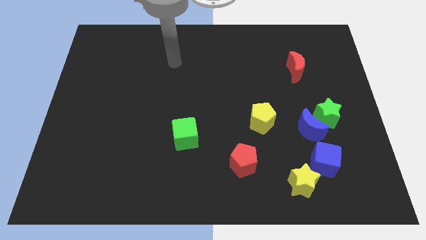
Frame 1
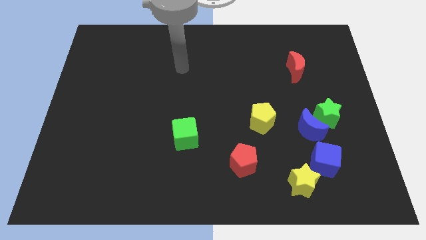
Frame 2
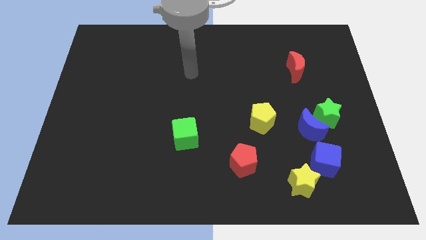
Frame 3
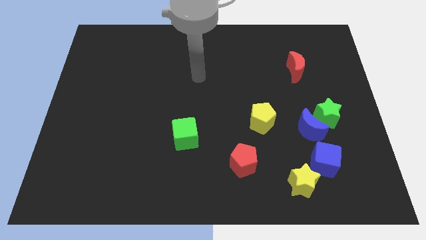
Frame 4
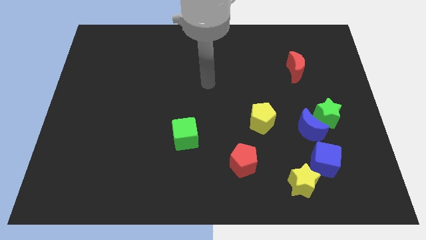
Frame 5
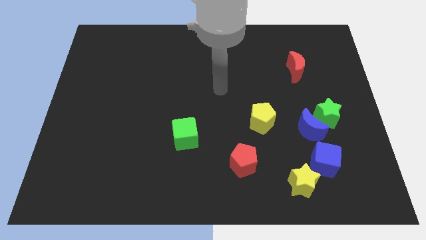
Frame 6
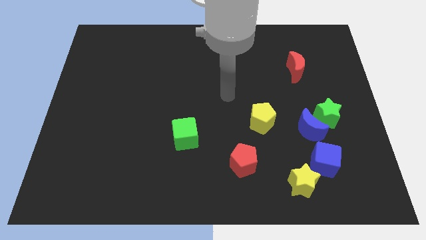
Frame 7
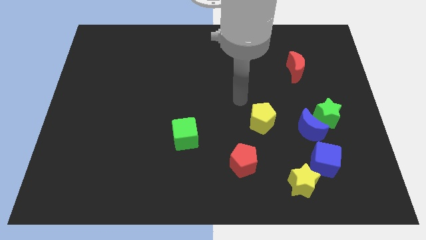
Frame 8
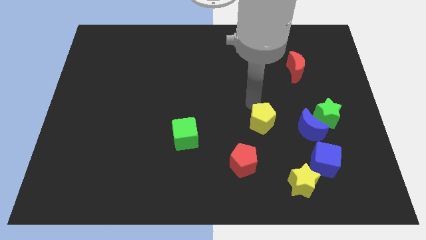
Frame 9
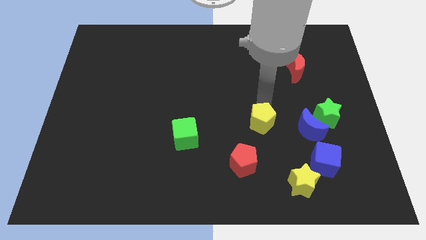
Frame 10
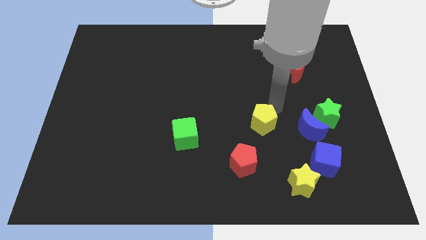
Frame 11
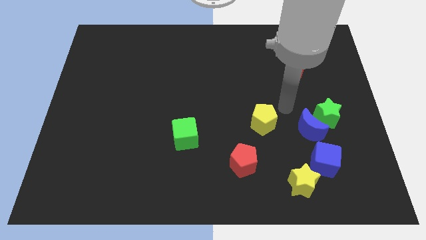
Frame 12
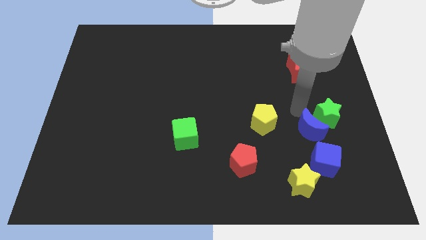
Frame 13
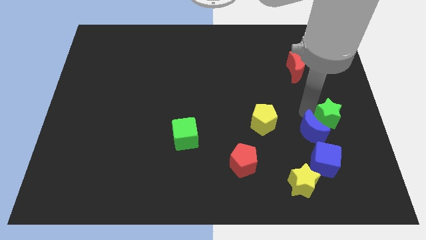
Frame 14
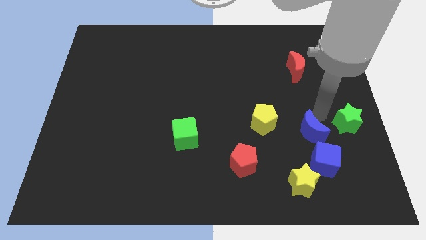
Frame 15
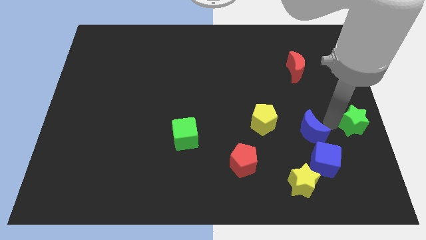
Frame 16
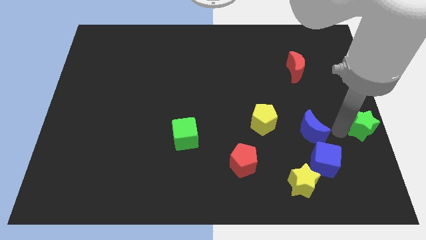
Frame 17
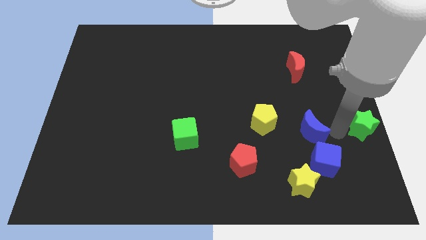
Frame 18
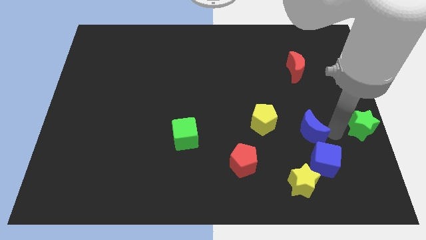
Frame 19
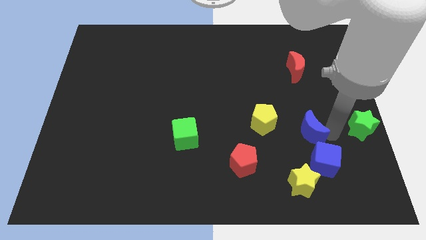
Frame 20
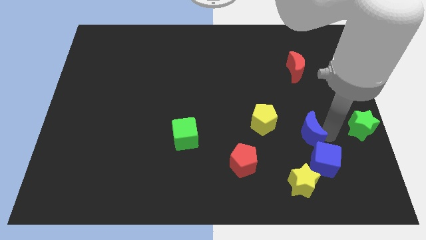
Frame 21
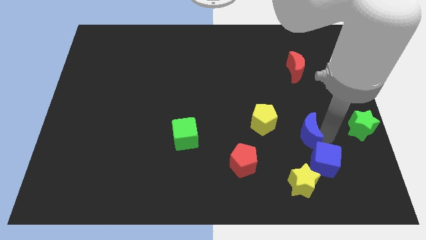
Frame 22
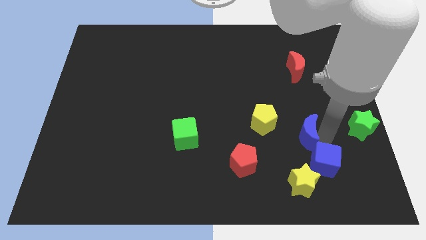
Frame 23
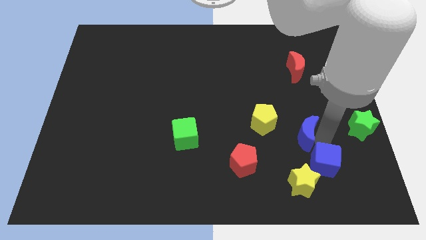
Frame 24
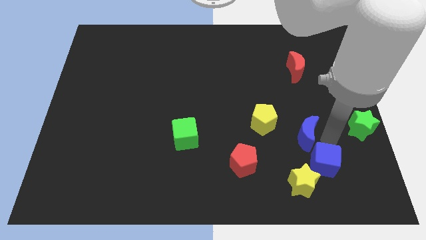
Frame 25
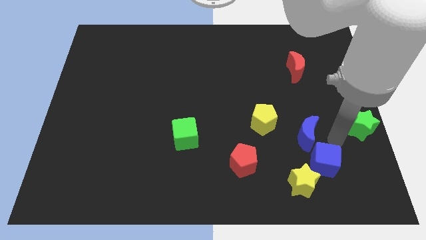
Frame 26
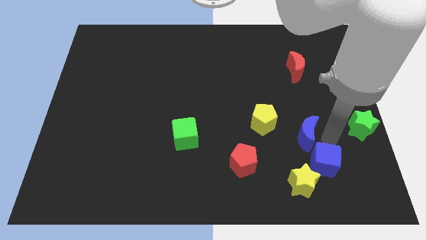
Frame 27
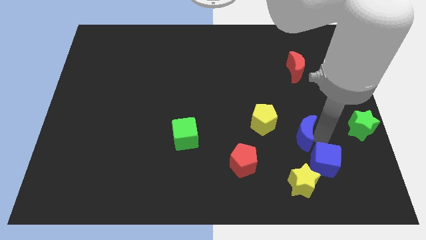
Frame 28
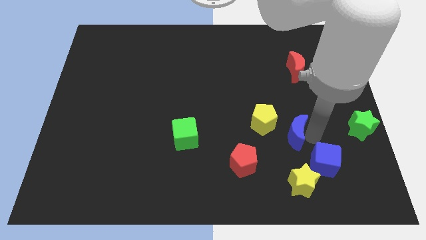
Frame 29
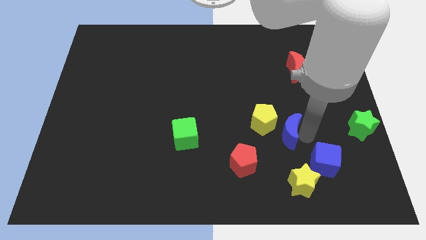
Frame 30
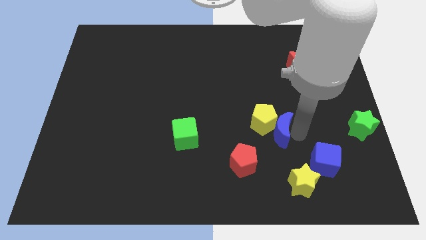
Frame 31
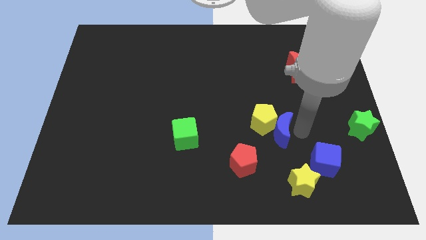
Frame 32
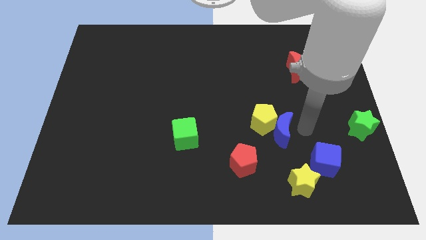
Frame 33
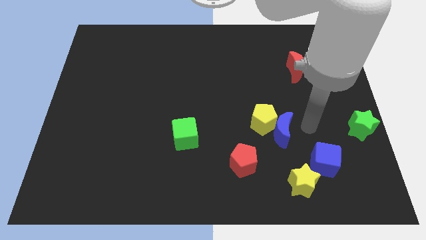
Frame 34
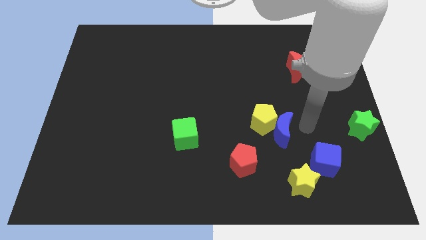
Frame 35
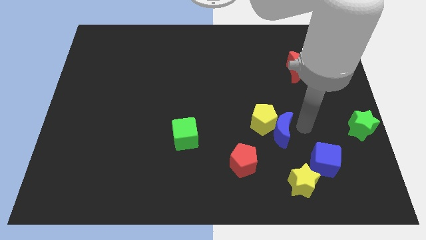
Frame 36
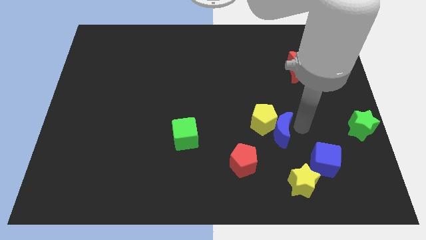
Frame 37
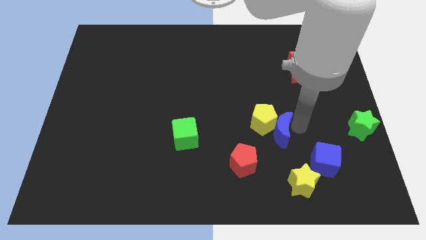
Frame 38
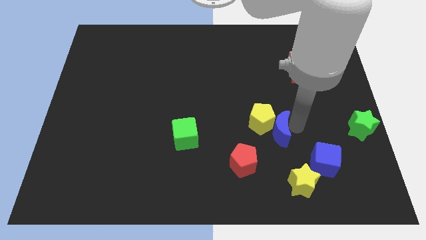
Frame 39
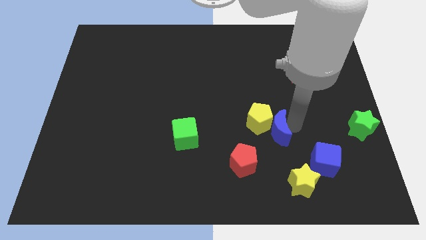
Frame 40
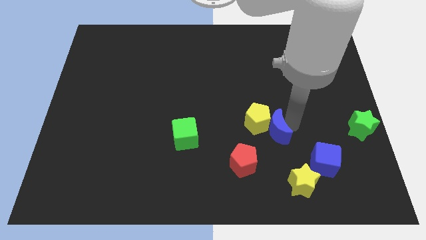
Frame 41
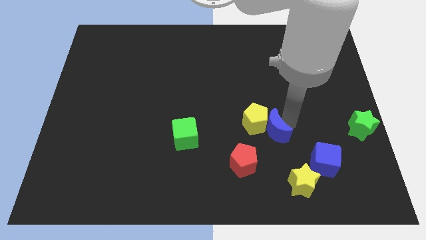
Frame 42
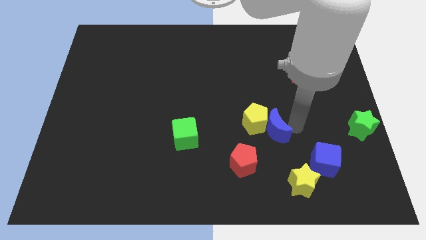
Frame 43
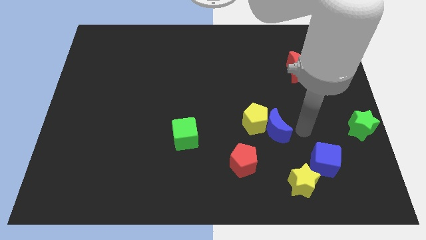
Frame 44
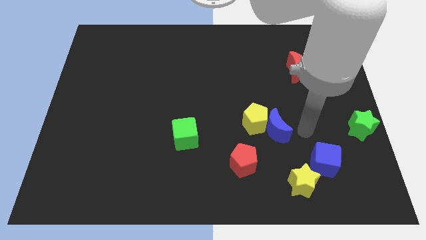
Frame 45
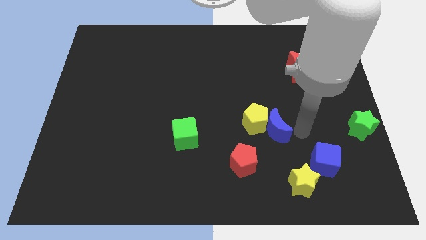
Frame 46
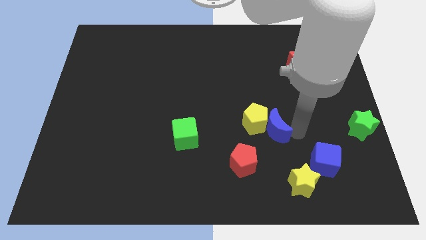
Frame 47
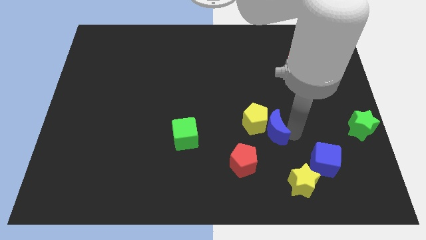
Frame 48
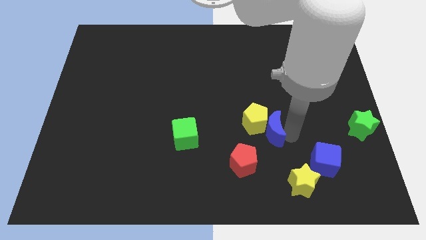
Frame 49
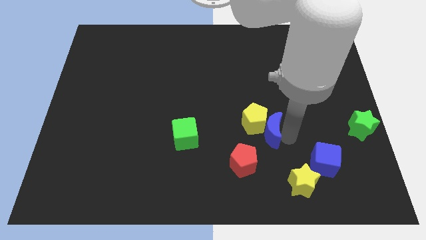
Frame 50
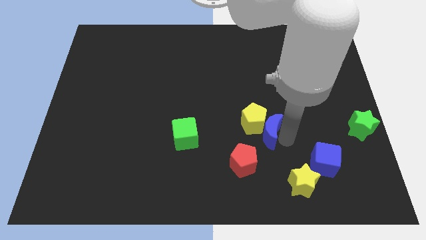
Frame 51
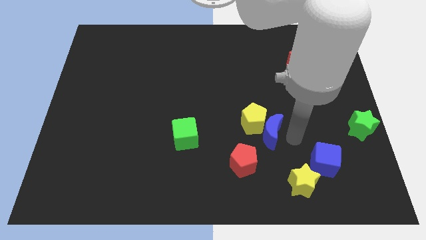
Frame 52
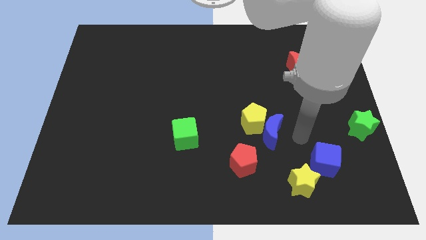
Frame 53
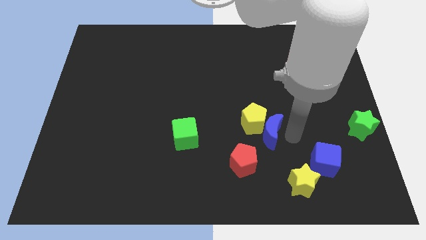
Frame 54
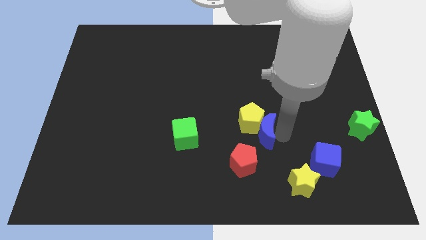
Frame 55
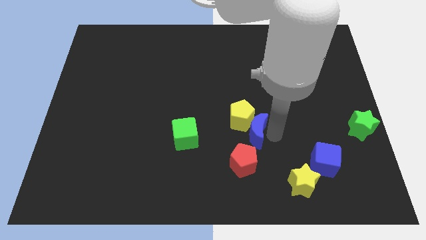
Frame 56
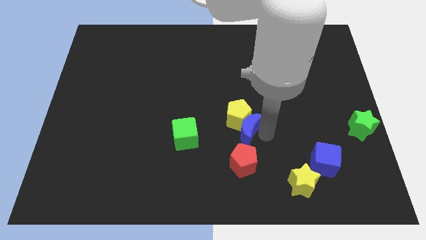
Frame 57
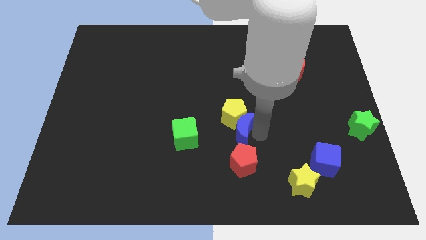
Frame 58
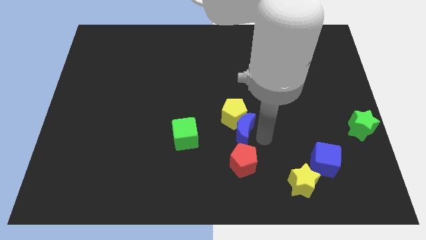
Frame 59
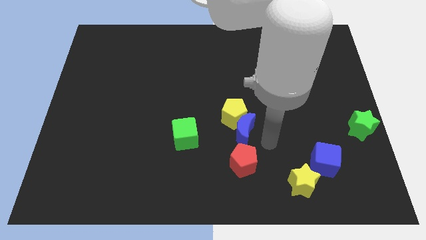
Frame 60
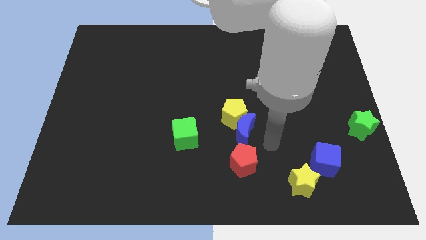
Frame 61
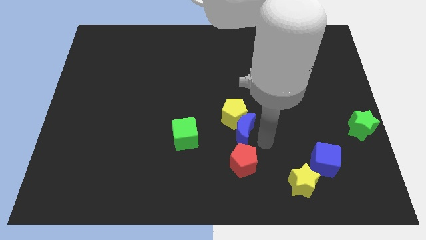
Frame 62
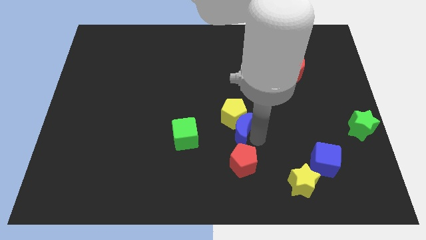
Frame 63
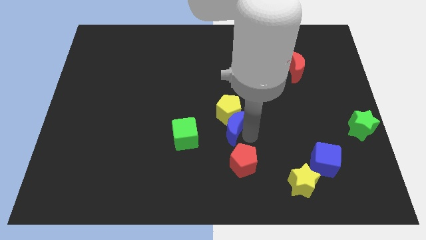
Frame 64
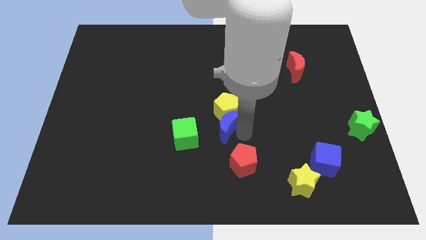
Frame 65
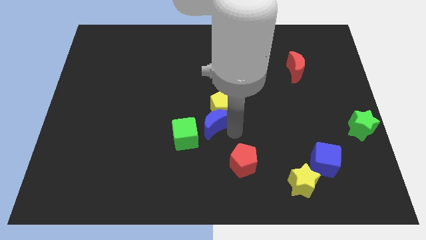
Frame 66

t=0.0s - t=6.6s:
move the blue moon to the left

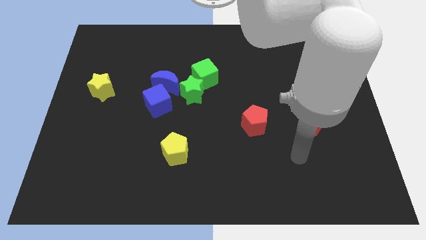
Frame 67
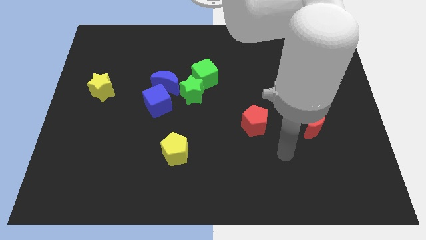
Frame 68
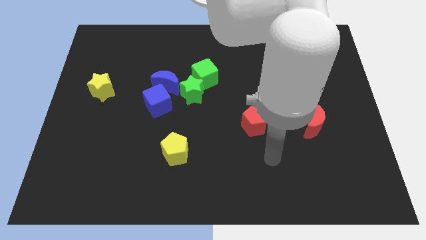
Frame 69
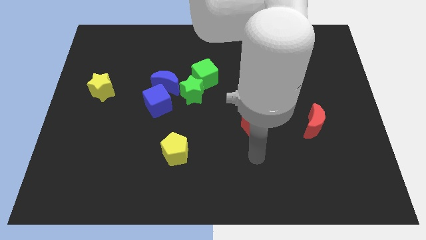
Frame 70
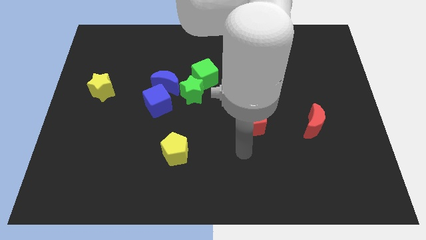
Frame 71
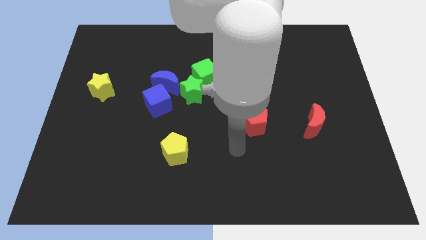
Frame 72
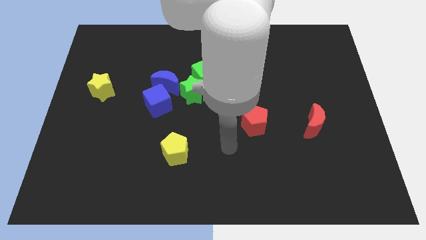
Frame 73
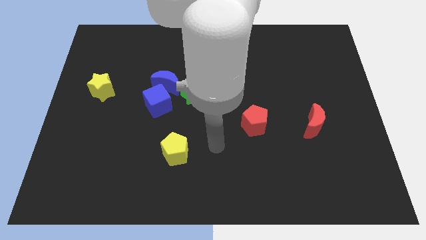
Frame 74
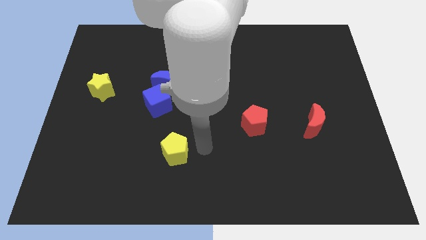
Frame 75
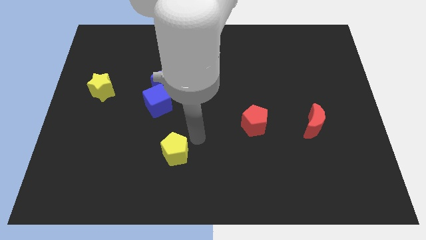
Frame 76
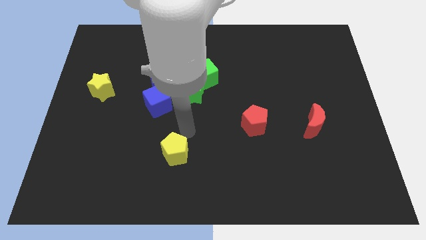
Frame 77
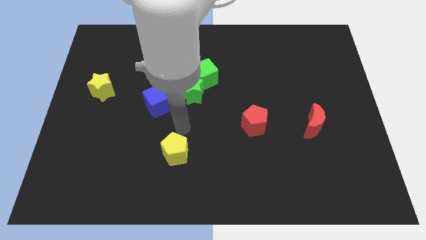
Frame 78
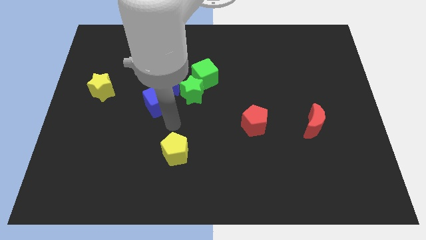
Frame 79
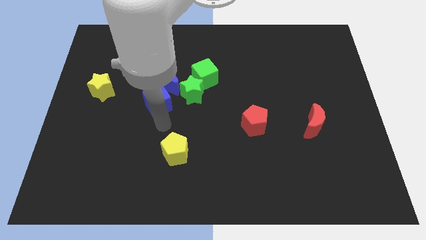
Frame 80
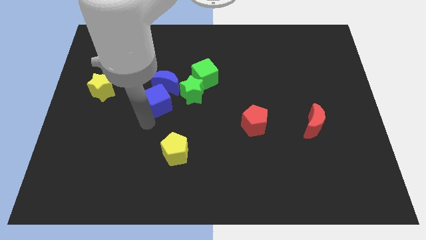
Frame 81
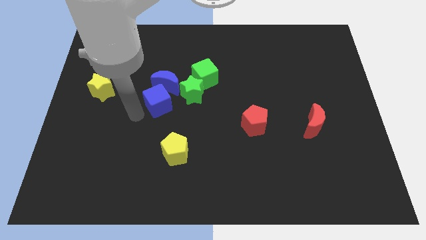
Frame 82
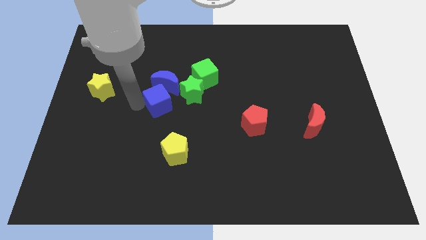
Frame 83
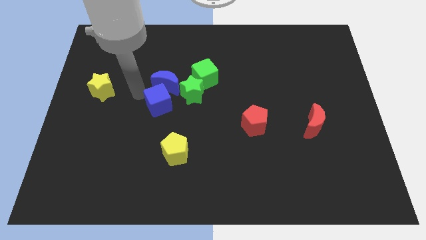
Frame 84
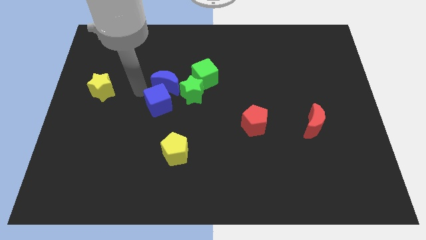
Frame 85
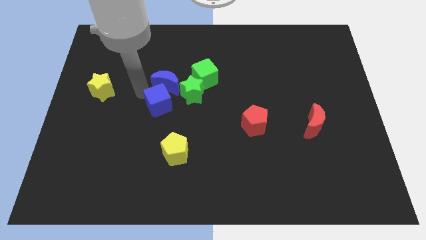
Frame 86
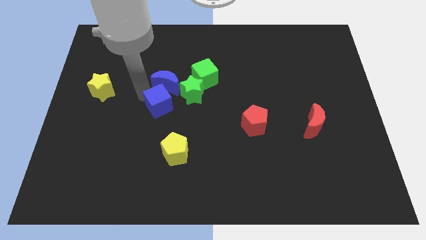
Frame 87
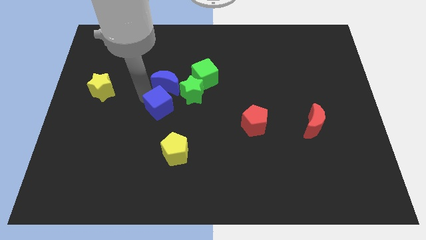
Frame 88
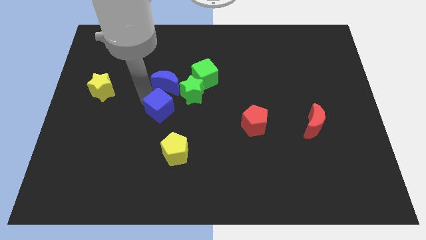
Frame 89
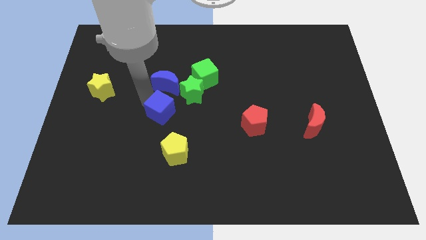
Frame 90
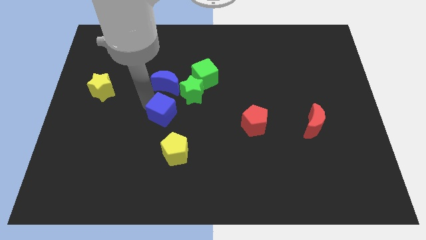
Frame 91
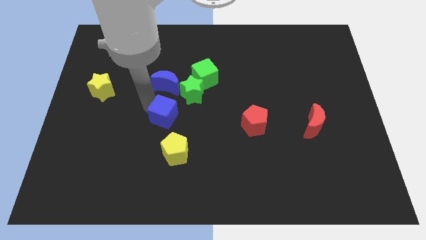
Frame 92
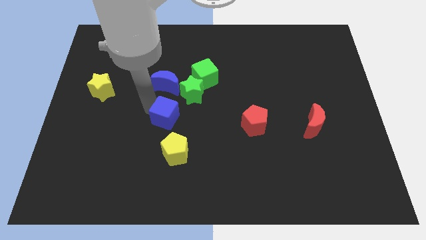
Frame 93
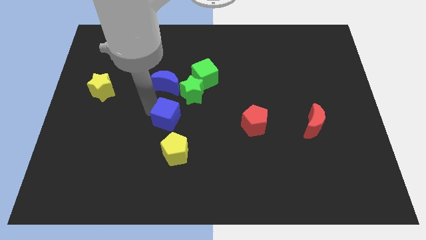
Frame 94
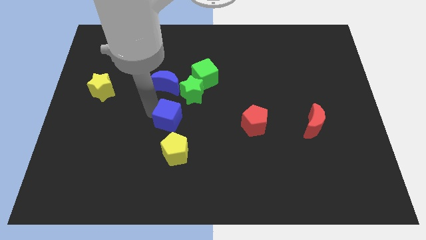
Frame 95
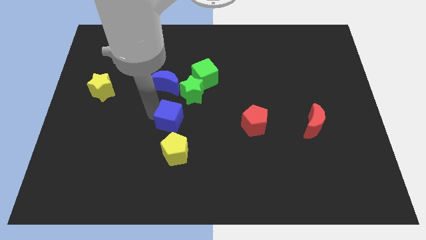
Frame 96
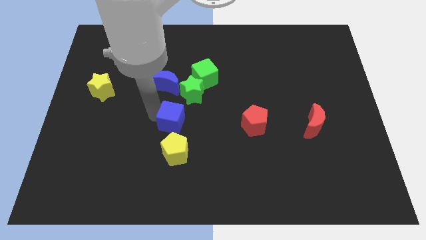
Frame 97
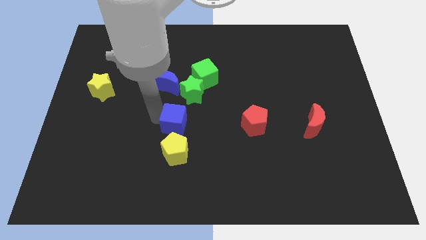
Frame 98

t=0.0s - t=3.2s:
slide the blue cube a little bit diagonally downwards and to the right
